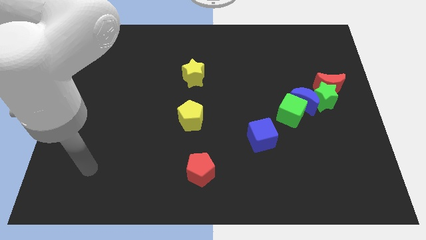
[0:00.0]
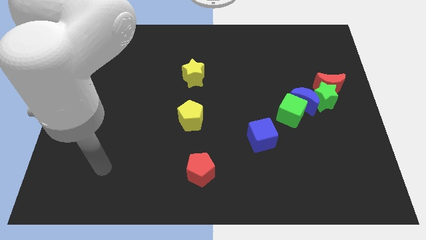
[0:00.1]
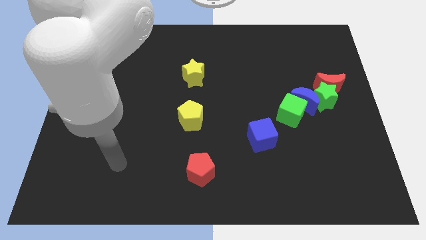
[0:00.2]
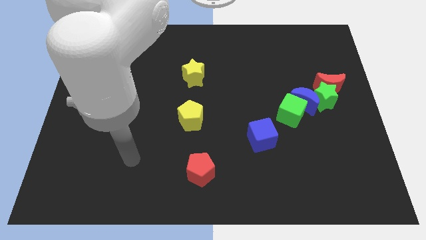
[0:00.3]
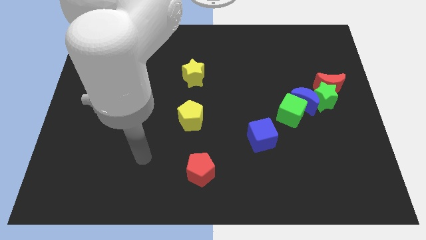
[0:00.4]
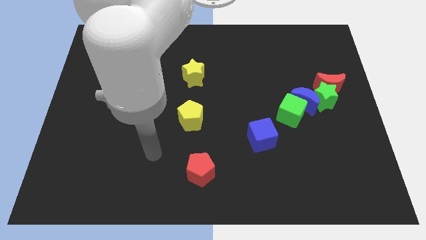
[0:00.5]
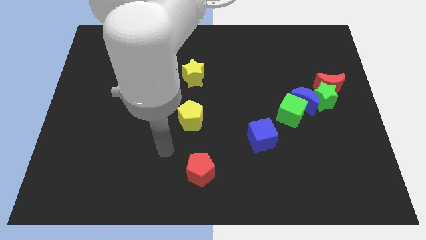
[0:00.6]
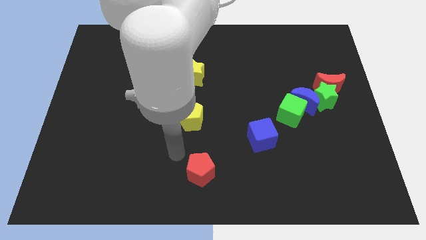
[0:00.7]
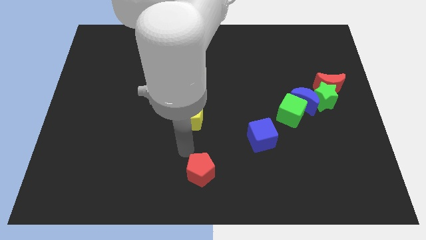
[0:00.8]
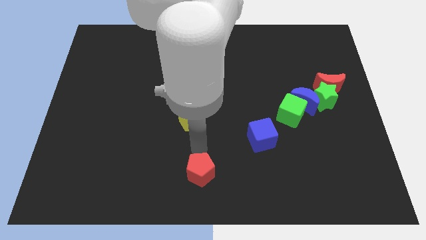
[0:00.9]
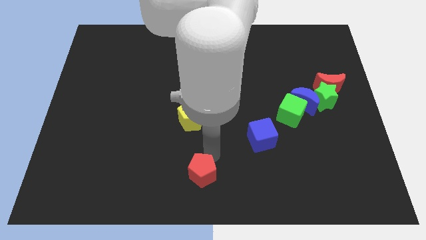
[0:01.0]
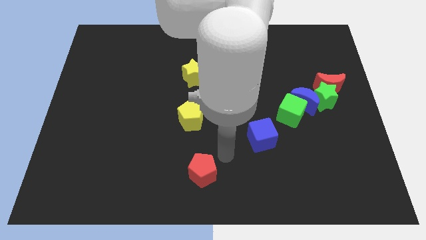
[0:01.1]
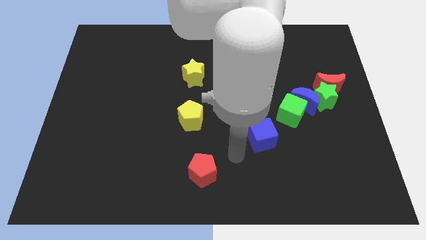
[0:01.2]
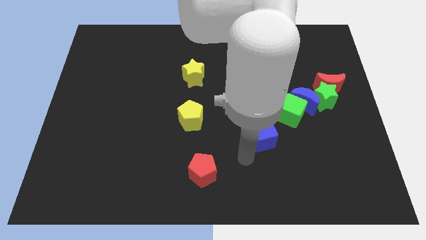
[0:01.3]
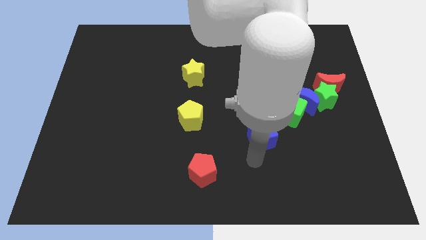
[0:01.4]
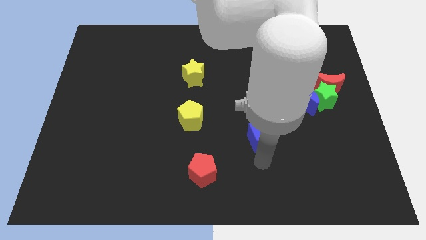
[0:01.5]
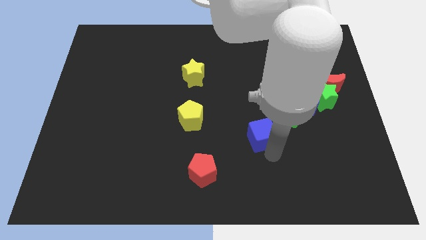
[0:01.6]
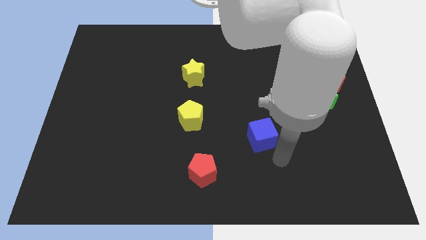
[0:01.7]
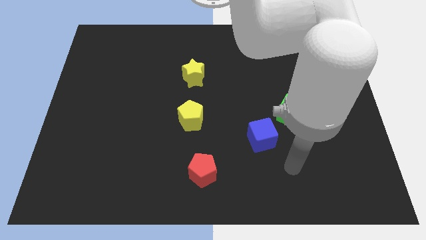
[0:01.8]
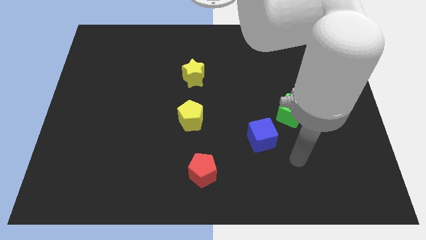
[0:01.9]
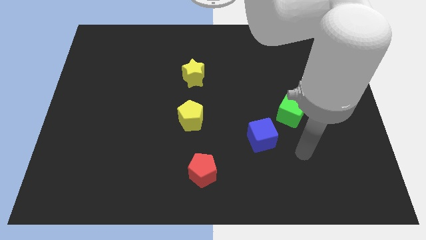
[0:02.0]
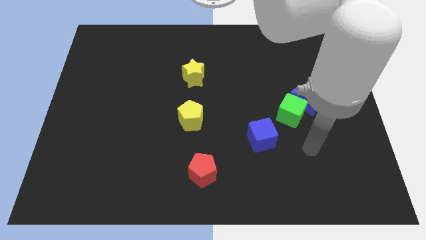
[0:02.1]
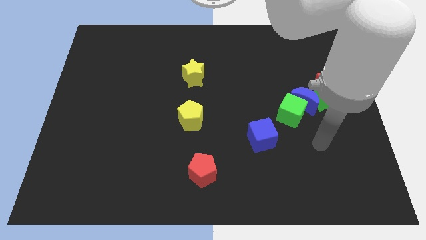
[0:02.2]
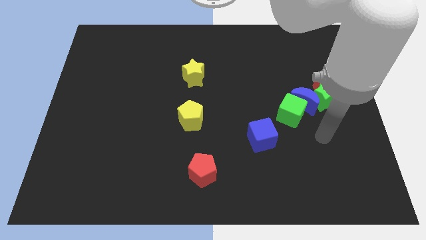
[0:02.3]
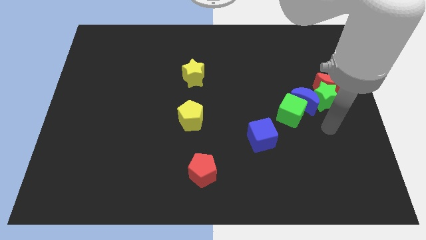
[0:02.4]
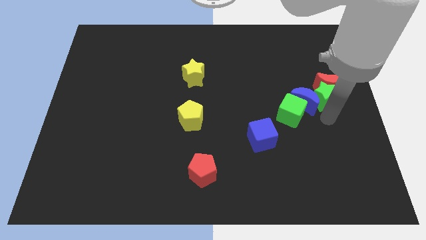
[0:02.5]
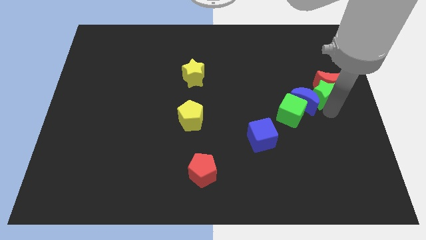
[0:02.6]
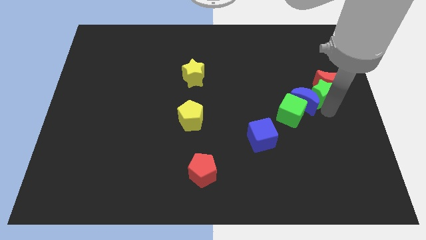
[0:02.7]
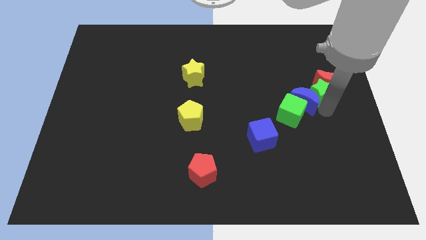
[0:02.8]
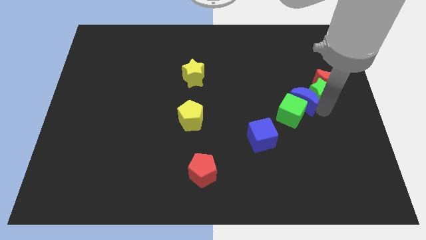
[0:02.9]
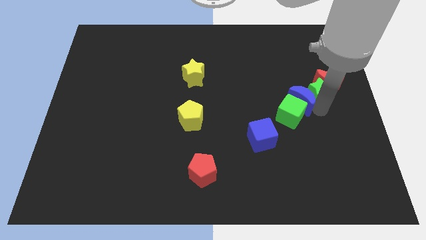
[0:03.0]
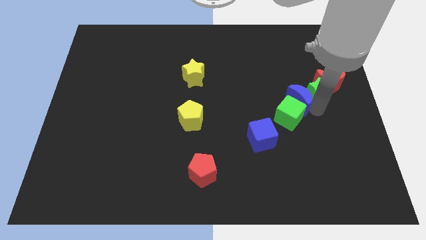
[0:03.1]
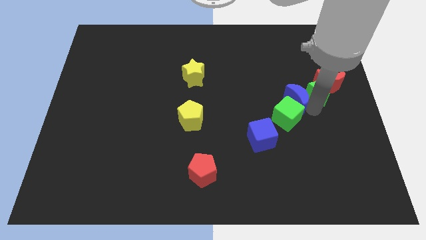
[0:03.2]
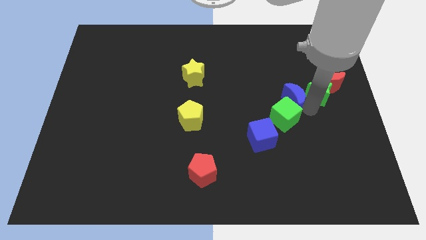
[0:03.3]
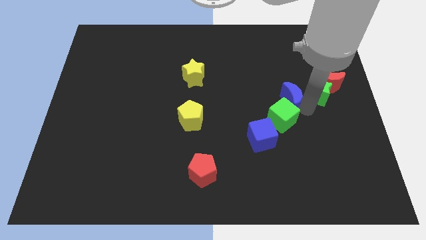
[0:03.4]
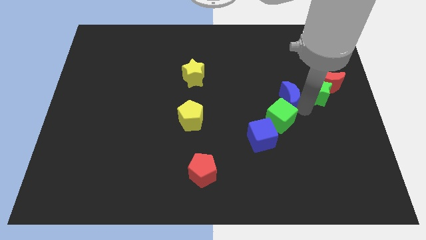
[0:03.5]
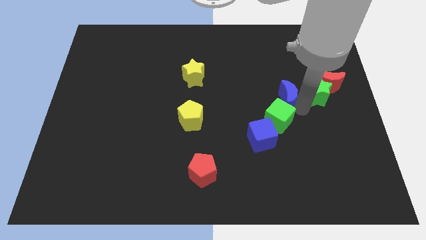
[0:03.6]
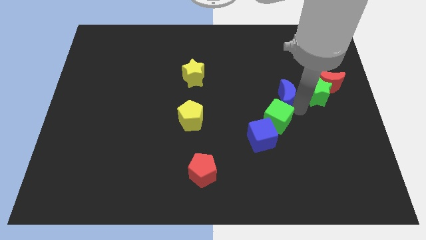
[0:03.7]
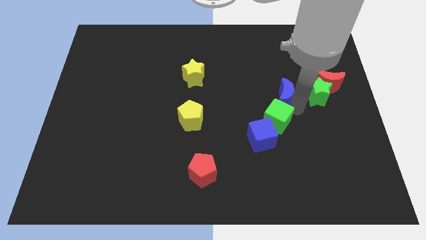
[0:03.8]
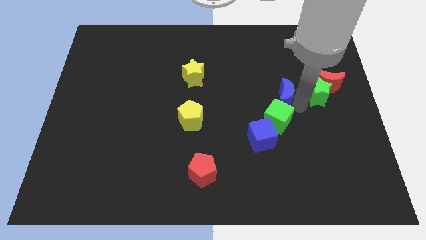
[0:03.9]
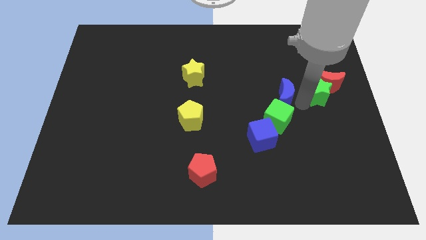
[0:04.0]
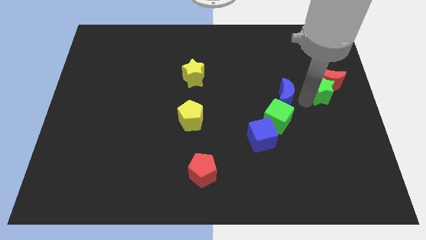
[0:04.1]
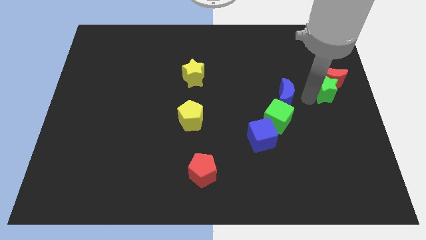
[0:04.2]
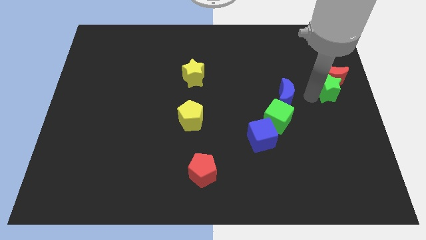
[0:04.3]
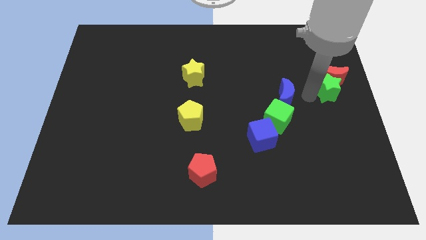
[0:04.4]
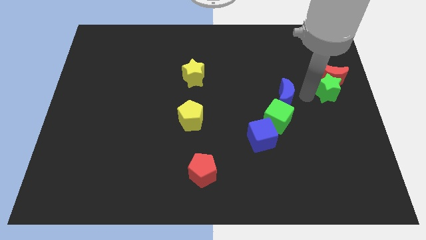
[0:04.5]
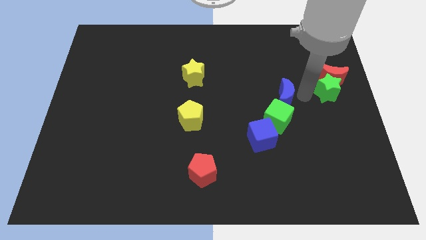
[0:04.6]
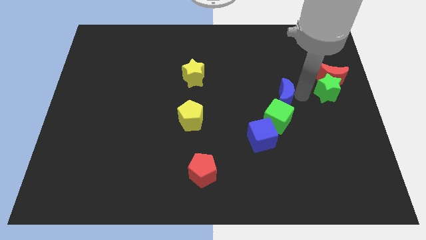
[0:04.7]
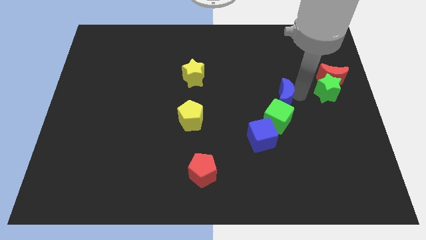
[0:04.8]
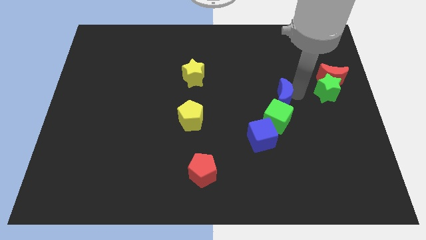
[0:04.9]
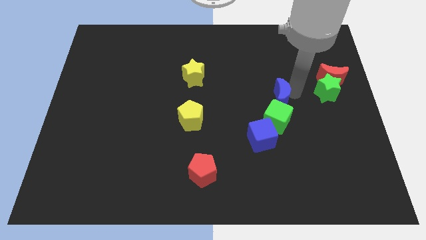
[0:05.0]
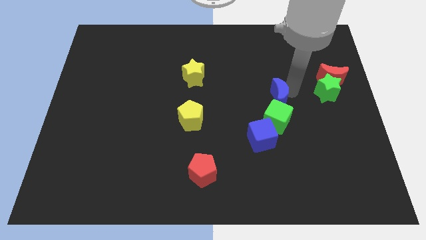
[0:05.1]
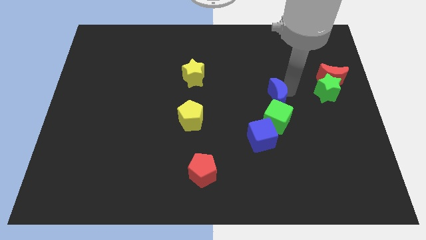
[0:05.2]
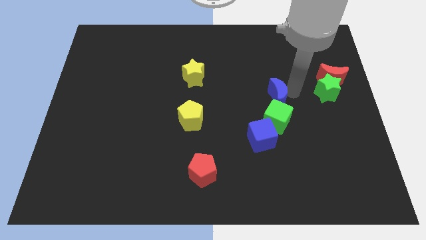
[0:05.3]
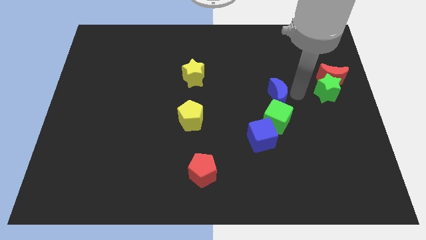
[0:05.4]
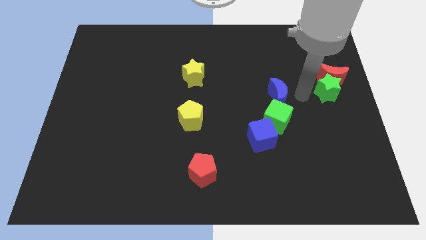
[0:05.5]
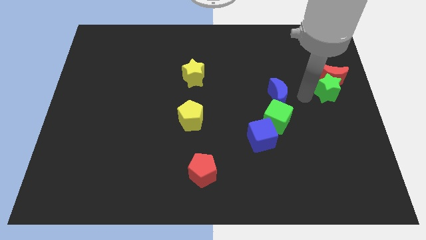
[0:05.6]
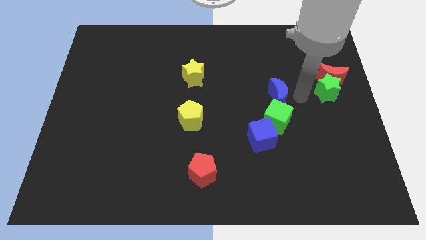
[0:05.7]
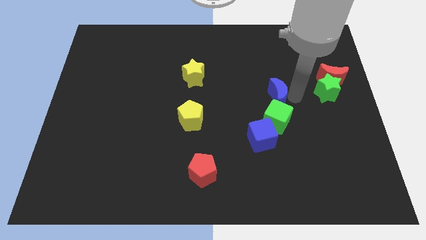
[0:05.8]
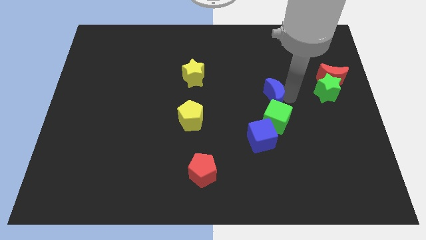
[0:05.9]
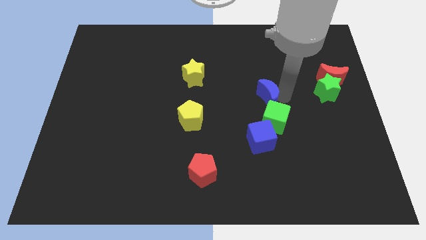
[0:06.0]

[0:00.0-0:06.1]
move the blue moon away from the group of blocks

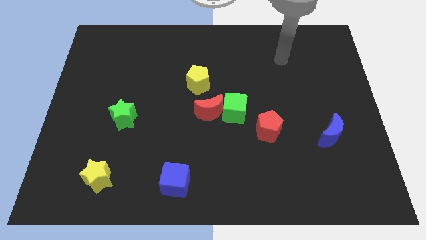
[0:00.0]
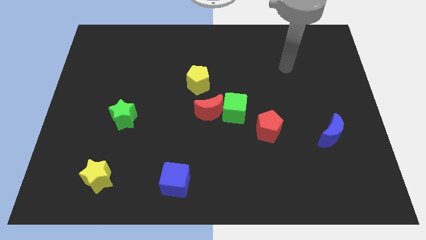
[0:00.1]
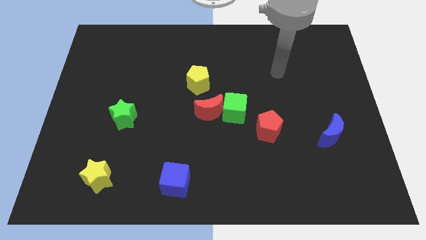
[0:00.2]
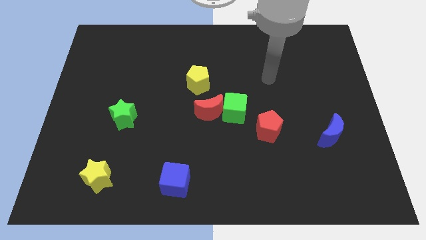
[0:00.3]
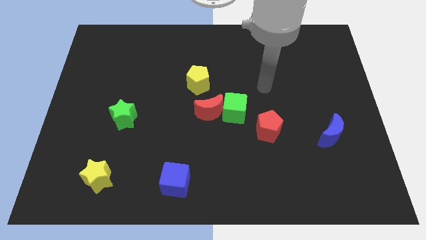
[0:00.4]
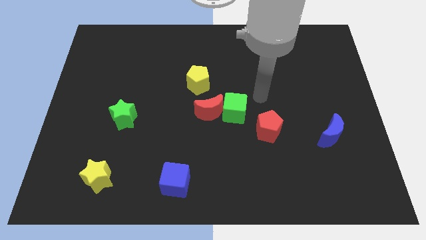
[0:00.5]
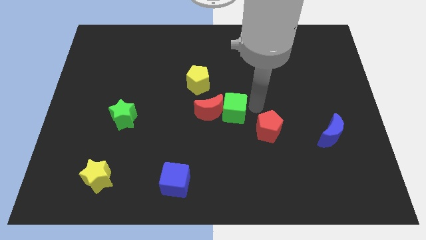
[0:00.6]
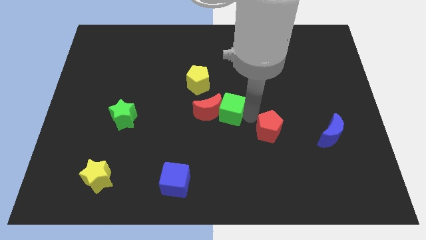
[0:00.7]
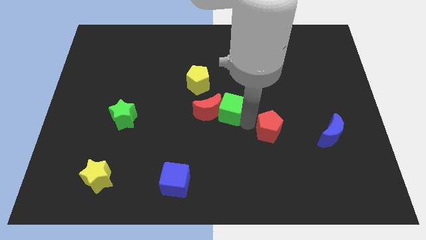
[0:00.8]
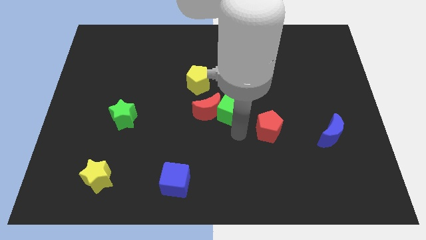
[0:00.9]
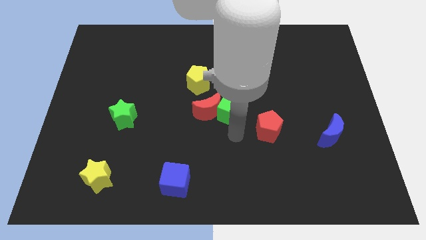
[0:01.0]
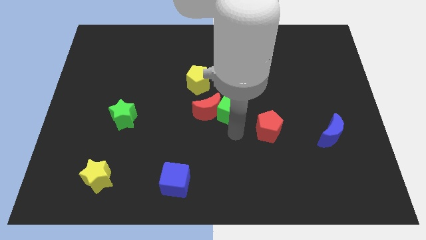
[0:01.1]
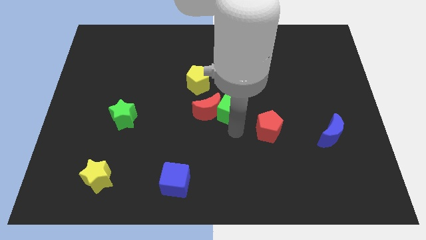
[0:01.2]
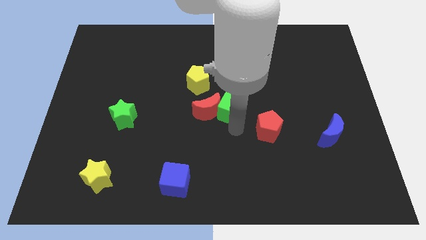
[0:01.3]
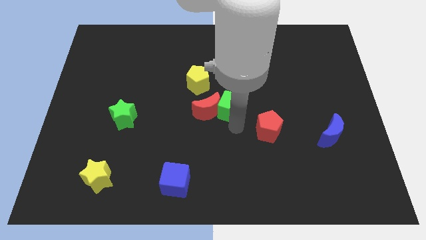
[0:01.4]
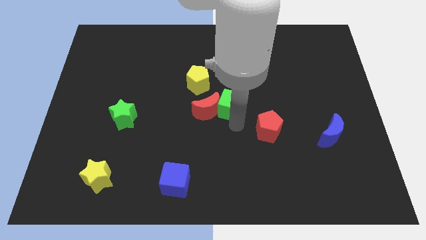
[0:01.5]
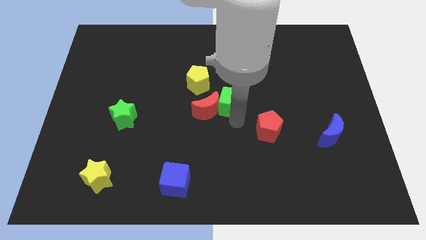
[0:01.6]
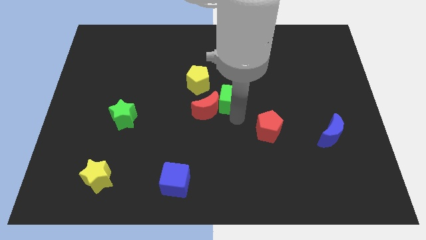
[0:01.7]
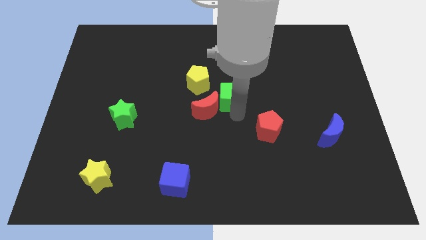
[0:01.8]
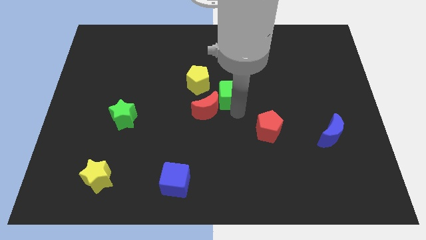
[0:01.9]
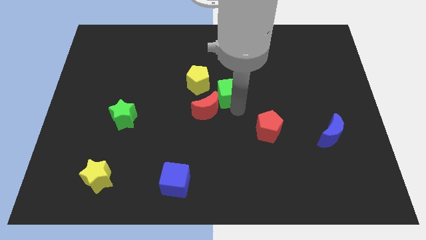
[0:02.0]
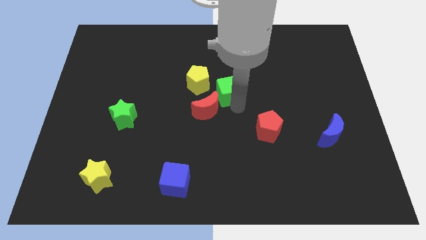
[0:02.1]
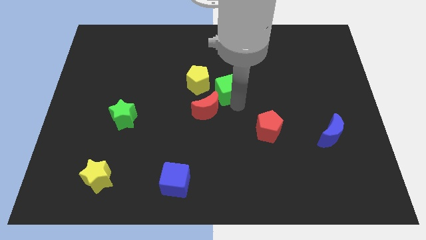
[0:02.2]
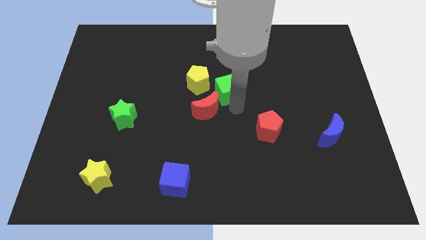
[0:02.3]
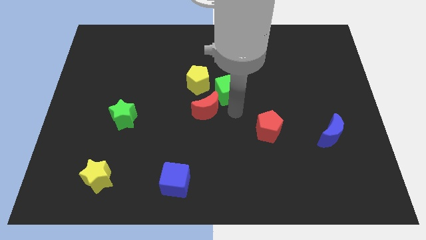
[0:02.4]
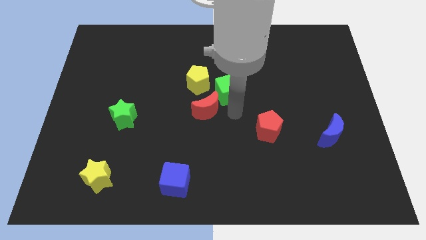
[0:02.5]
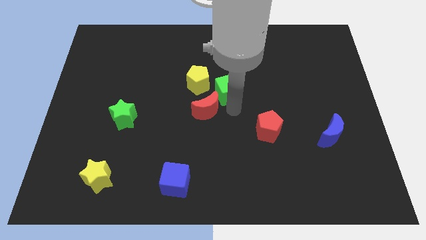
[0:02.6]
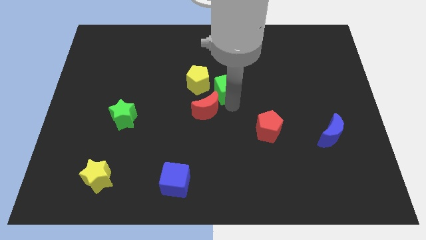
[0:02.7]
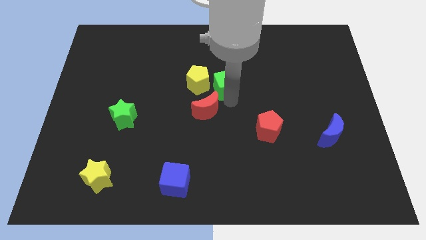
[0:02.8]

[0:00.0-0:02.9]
move the green cube away from the red moon and red pentagon

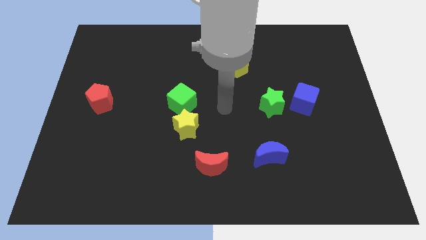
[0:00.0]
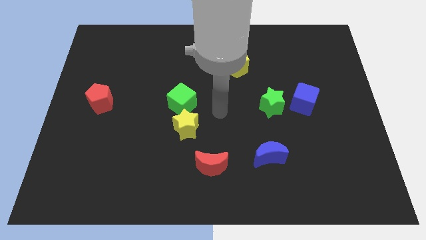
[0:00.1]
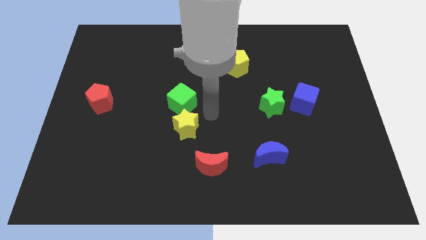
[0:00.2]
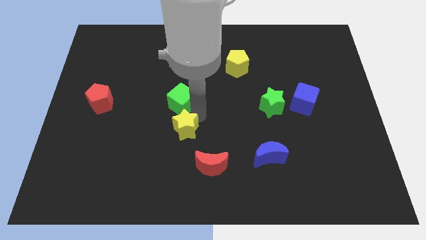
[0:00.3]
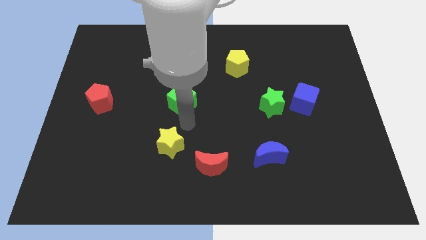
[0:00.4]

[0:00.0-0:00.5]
move the green cube away from the yellow star
